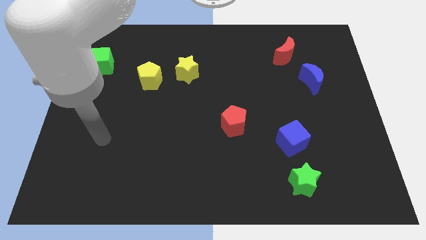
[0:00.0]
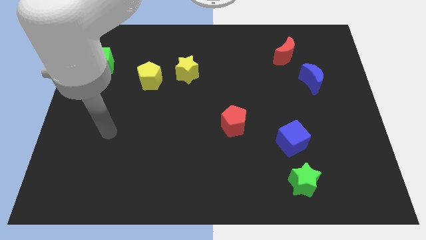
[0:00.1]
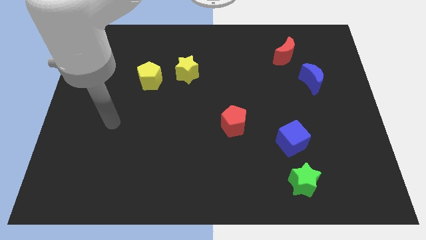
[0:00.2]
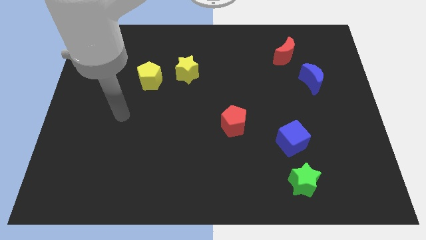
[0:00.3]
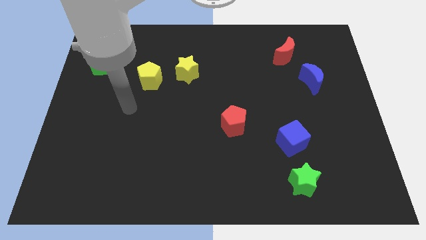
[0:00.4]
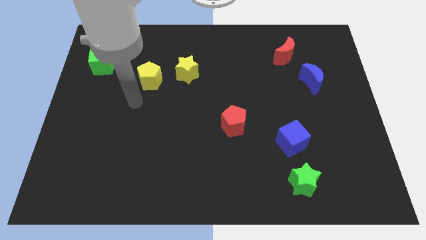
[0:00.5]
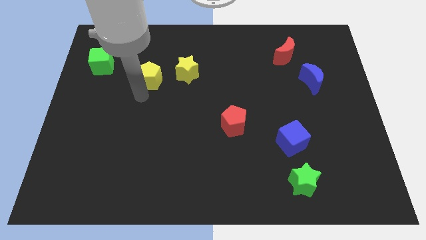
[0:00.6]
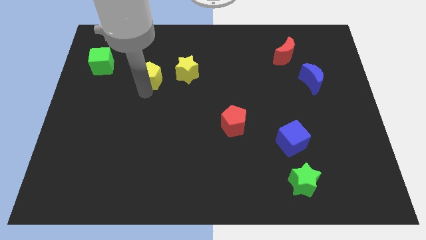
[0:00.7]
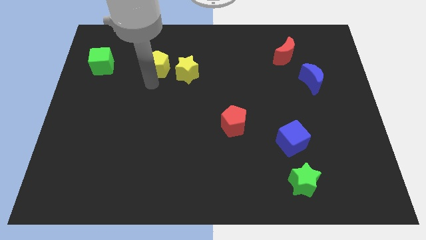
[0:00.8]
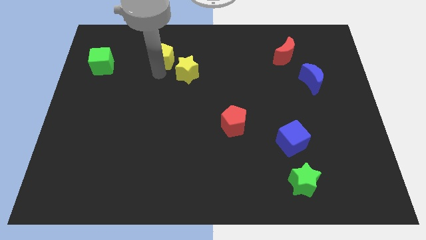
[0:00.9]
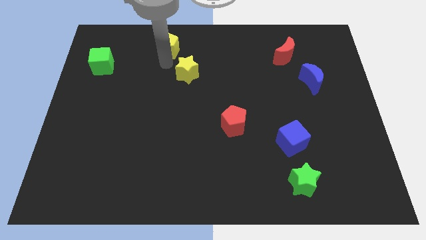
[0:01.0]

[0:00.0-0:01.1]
separate the yellow star from the yellow pentagon

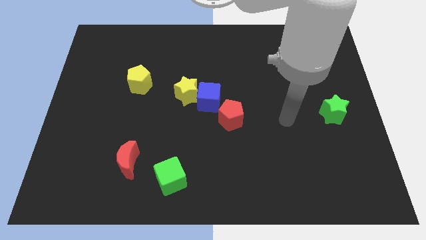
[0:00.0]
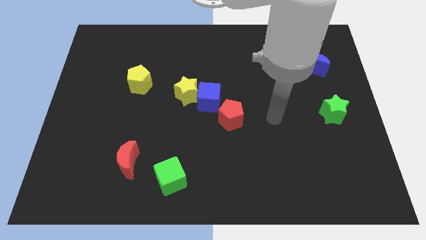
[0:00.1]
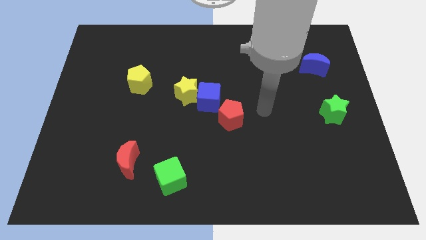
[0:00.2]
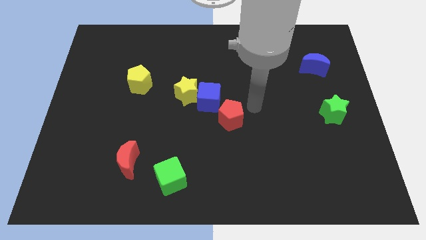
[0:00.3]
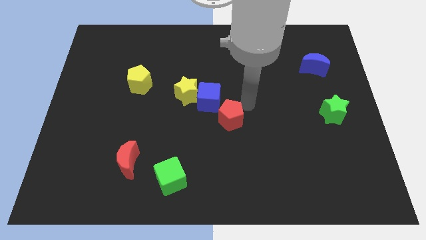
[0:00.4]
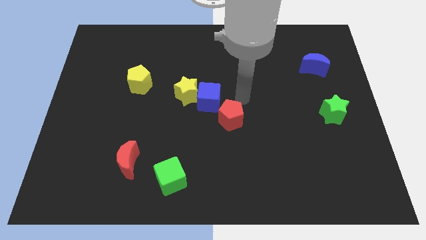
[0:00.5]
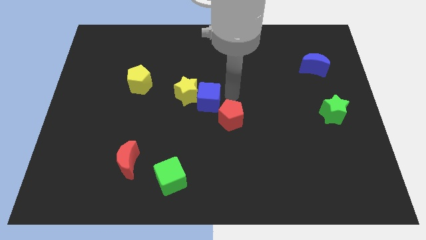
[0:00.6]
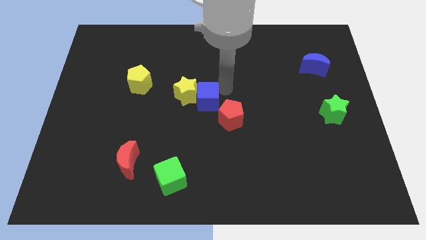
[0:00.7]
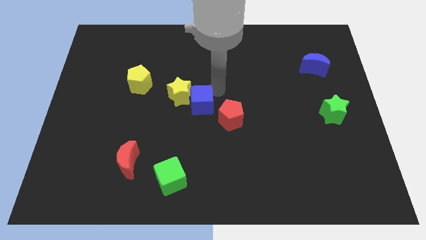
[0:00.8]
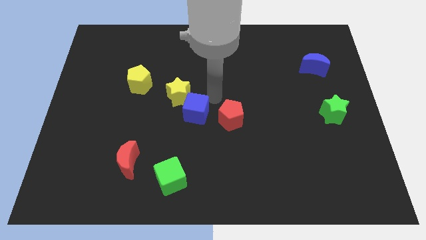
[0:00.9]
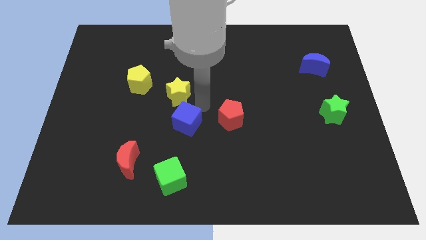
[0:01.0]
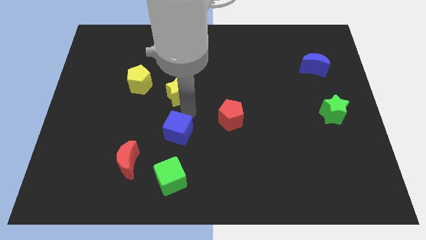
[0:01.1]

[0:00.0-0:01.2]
separate the yellow star from the blue cube

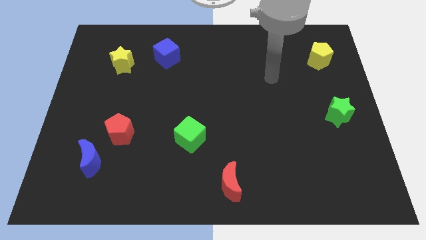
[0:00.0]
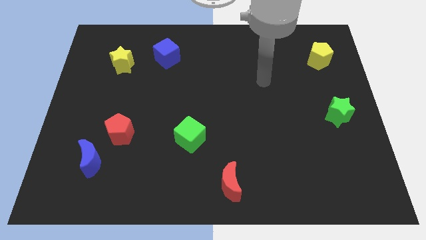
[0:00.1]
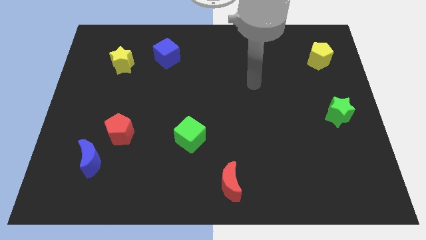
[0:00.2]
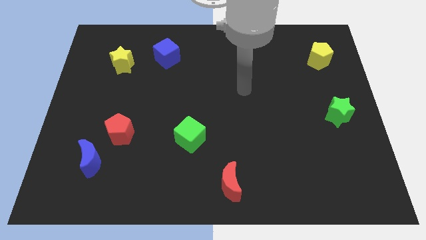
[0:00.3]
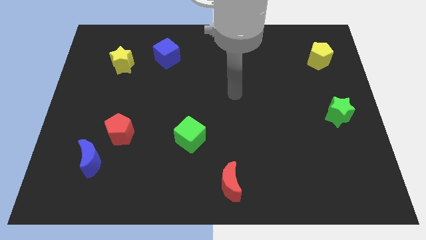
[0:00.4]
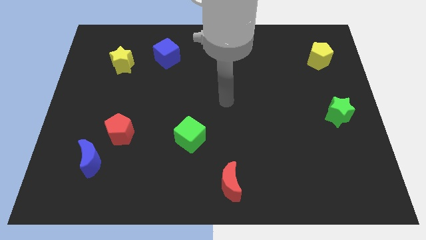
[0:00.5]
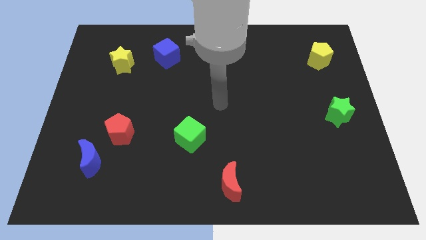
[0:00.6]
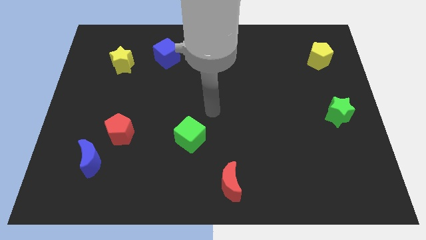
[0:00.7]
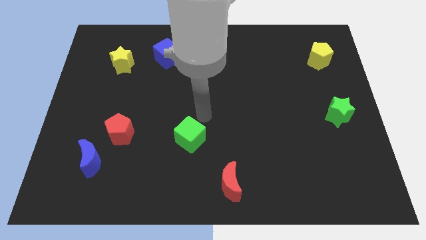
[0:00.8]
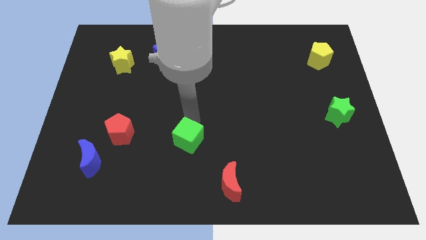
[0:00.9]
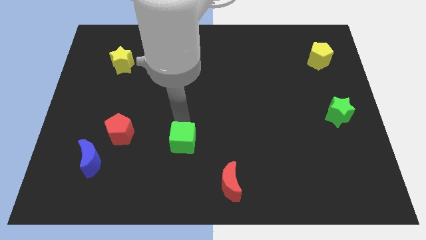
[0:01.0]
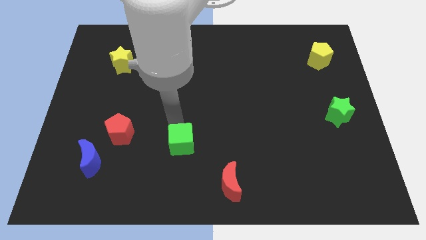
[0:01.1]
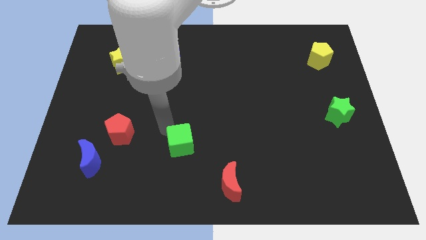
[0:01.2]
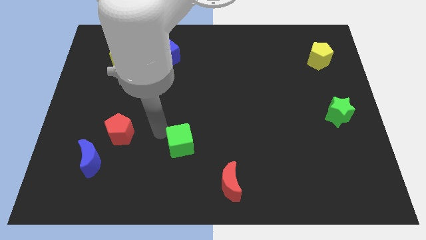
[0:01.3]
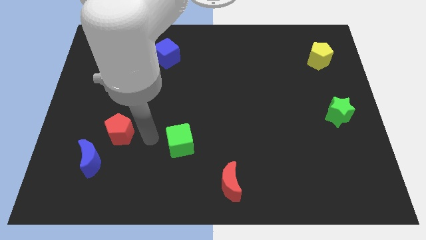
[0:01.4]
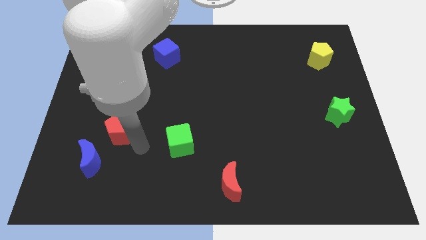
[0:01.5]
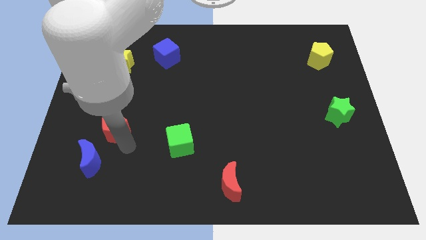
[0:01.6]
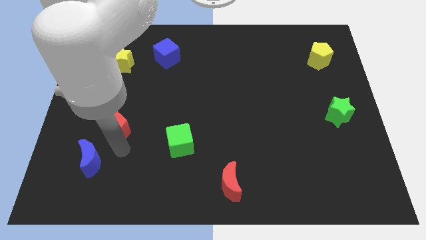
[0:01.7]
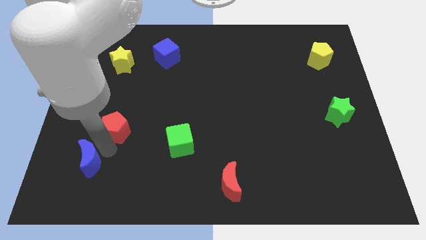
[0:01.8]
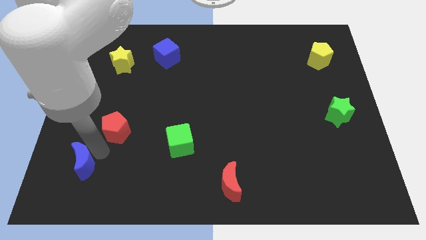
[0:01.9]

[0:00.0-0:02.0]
separate the red pentagon from the blue moon

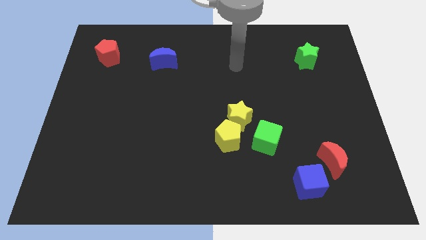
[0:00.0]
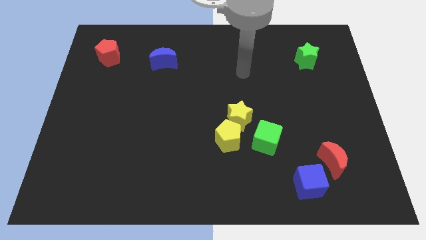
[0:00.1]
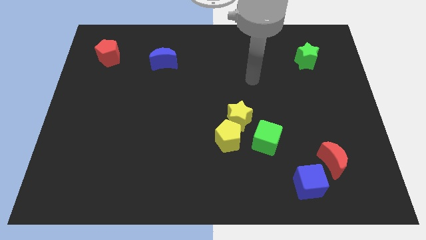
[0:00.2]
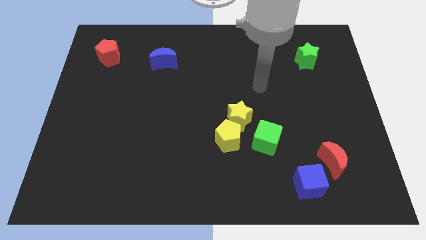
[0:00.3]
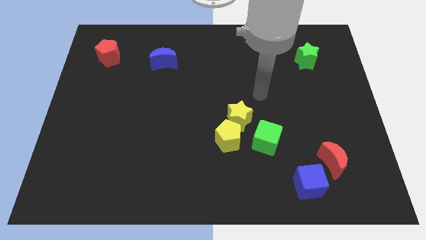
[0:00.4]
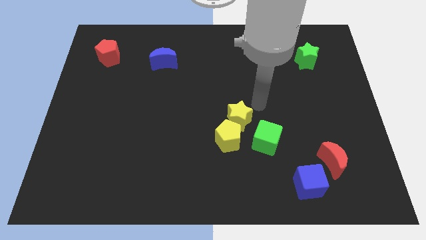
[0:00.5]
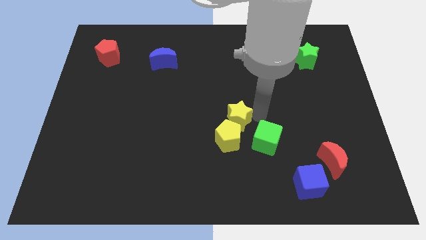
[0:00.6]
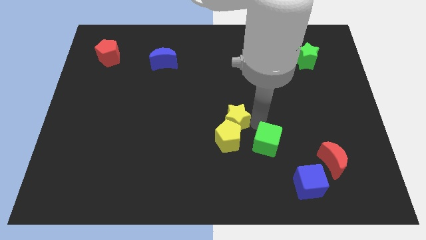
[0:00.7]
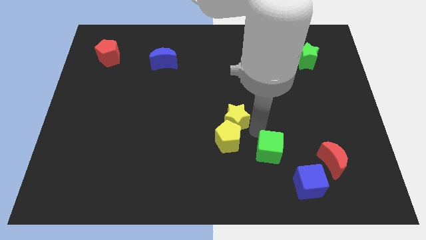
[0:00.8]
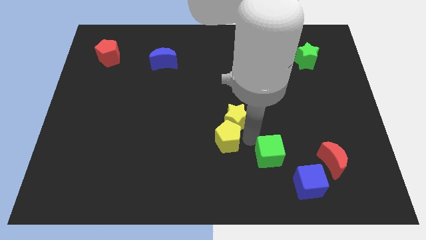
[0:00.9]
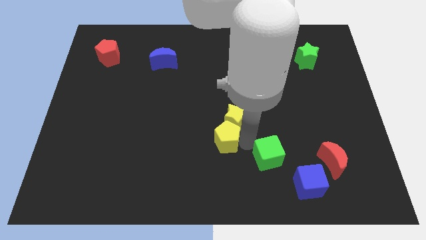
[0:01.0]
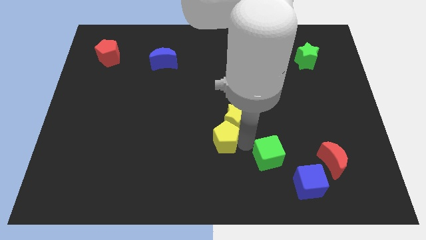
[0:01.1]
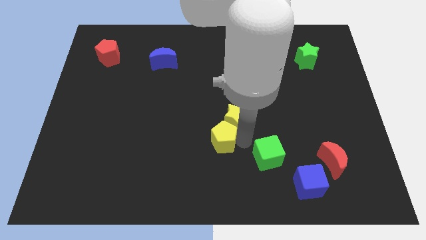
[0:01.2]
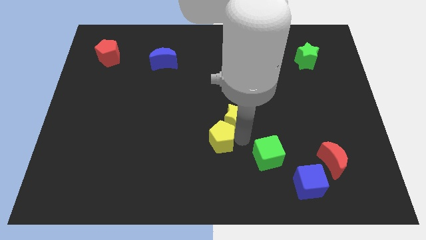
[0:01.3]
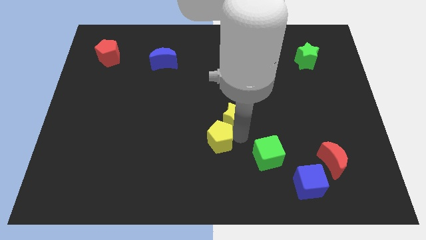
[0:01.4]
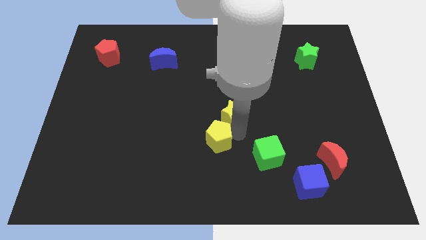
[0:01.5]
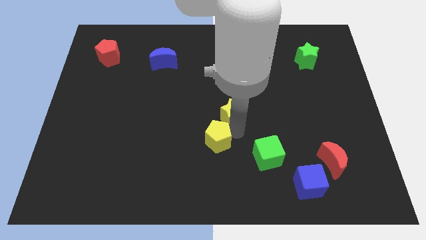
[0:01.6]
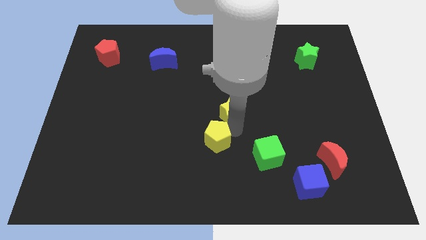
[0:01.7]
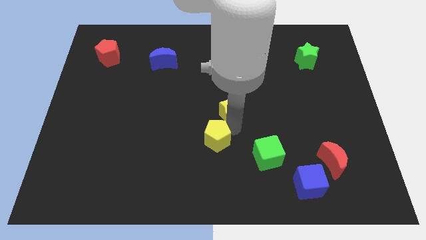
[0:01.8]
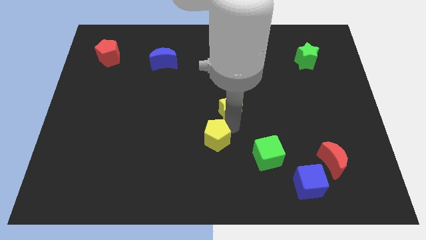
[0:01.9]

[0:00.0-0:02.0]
pull the yellow star apart from the yellow pentagon and green cube

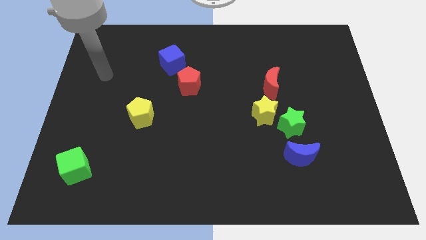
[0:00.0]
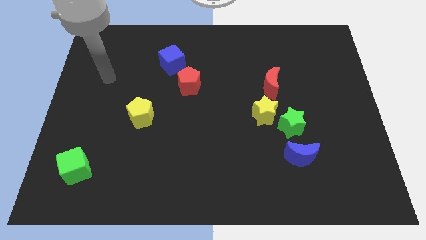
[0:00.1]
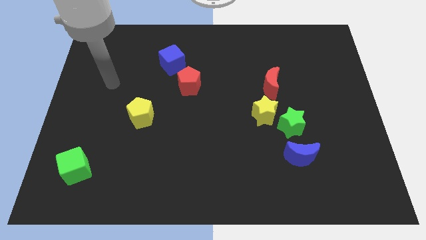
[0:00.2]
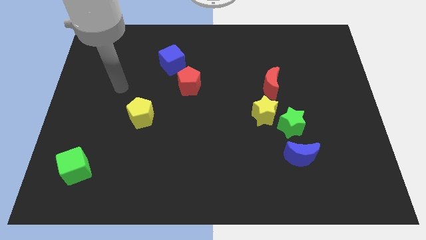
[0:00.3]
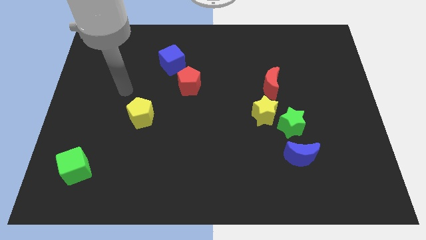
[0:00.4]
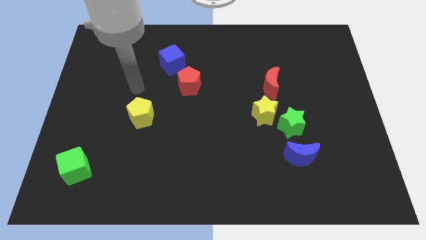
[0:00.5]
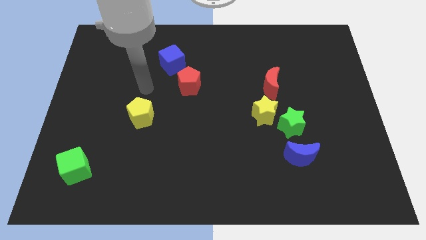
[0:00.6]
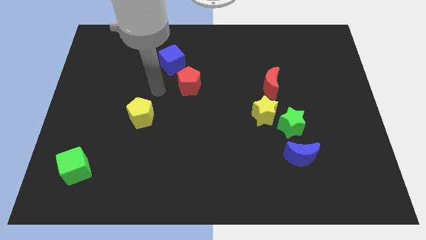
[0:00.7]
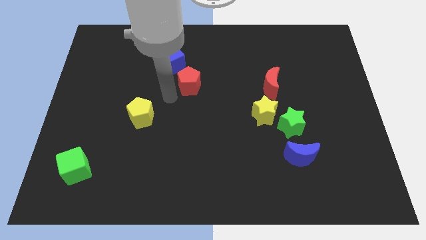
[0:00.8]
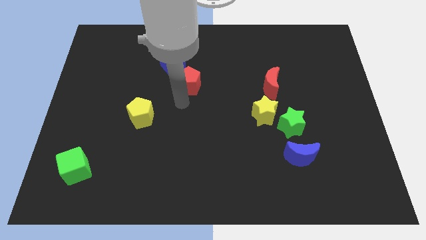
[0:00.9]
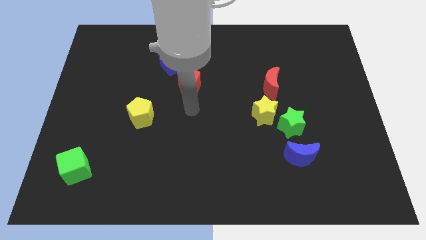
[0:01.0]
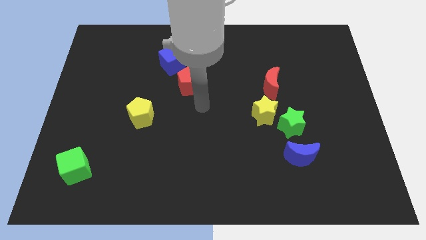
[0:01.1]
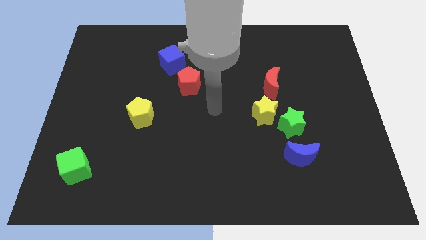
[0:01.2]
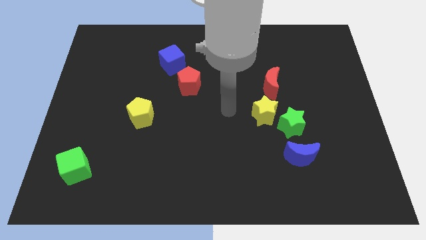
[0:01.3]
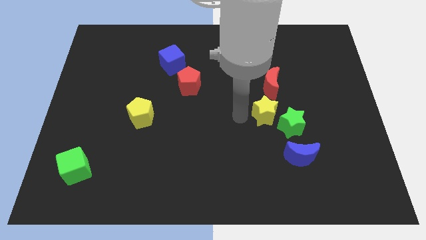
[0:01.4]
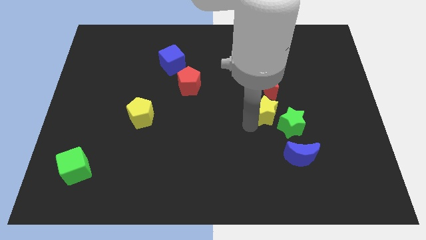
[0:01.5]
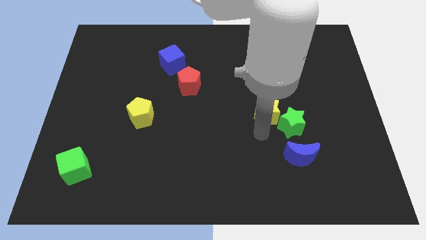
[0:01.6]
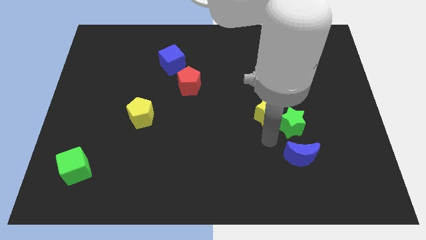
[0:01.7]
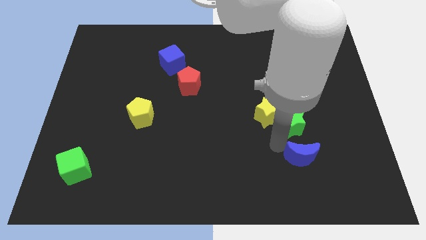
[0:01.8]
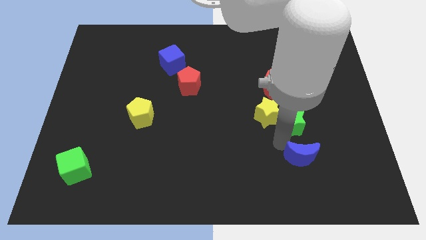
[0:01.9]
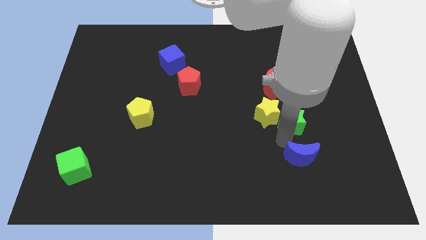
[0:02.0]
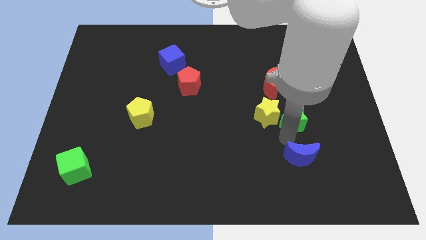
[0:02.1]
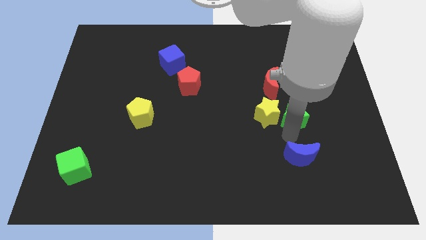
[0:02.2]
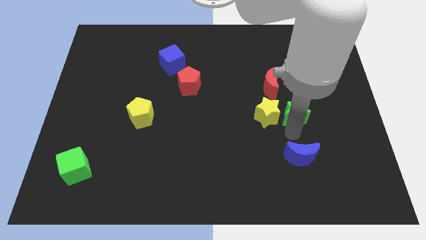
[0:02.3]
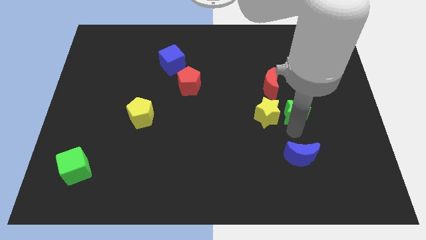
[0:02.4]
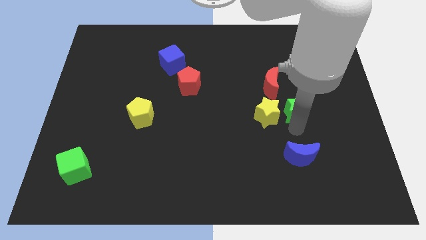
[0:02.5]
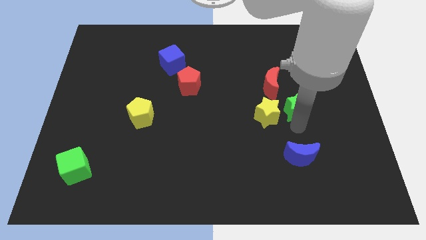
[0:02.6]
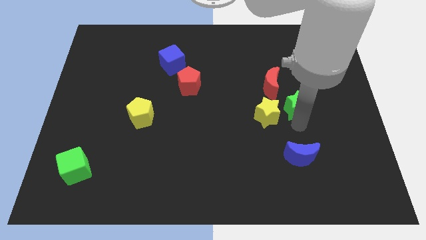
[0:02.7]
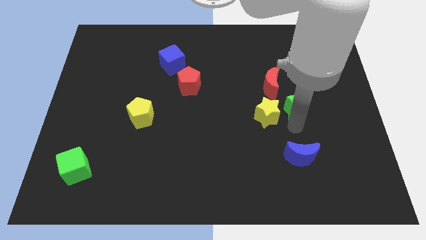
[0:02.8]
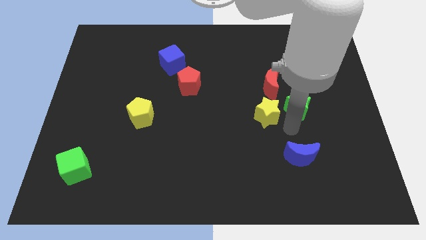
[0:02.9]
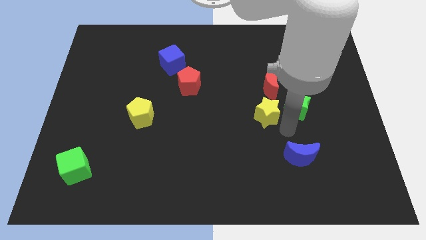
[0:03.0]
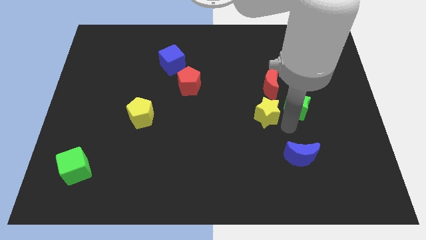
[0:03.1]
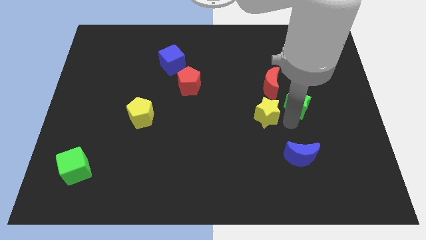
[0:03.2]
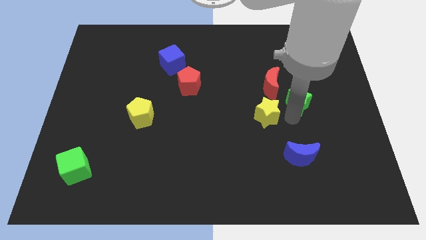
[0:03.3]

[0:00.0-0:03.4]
separate the green star from the yellow star and blue moon
